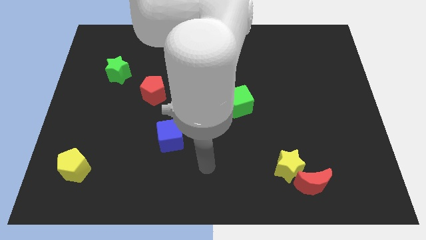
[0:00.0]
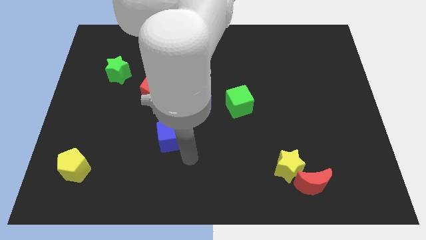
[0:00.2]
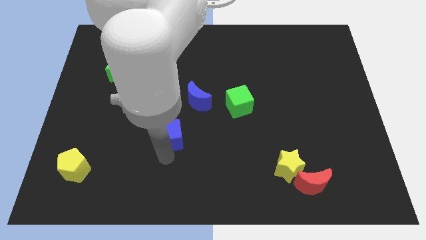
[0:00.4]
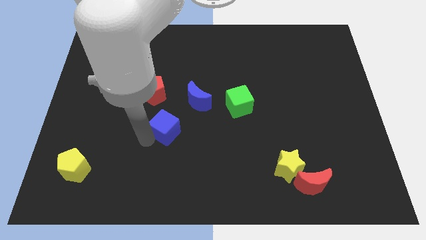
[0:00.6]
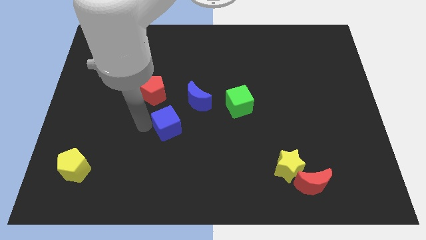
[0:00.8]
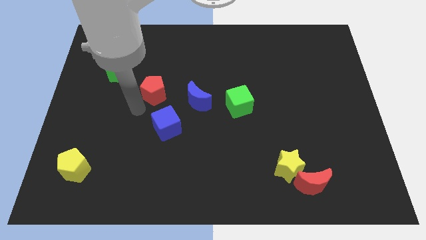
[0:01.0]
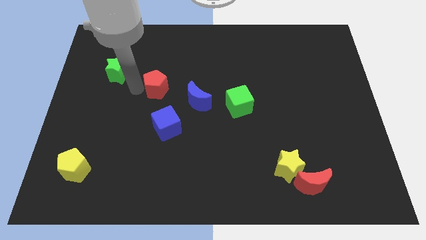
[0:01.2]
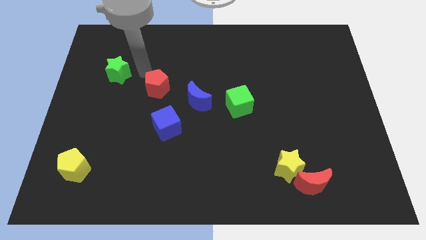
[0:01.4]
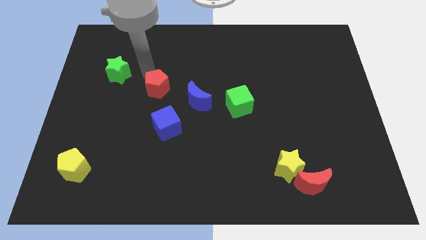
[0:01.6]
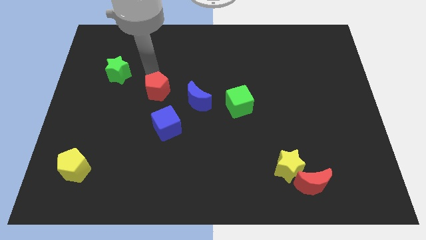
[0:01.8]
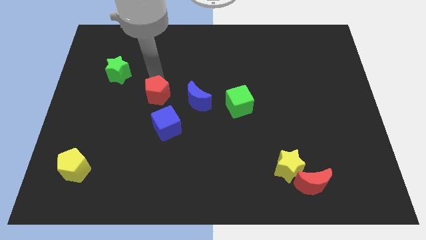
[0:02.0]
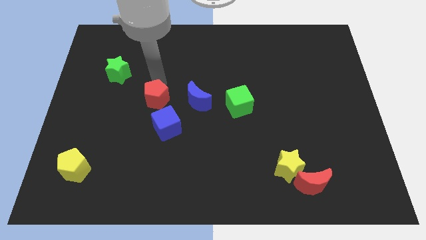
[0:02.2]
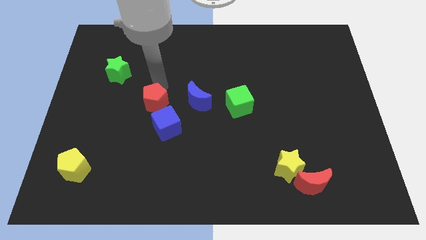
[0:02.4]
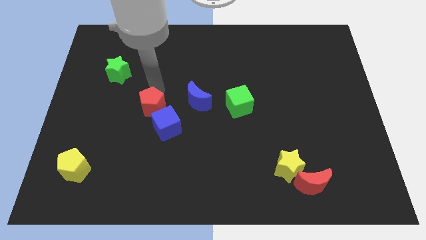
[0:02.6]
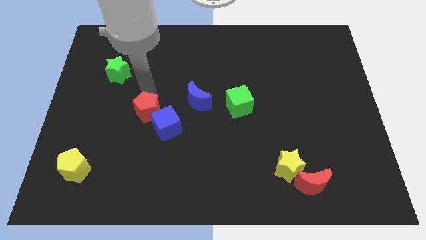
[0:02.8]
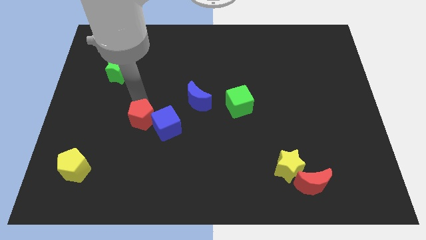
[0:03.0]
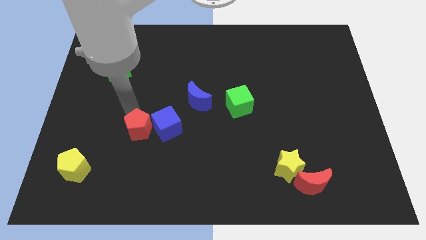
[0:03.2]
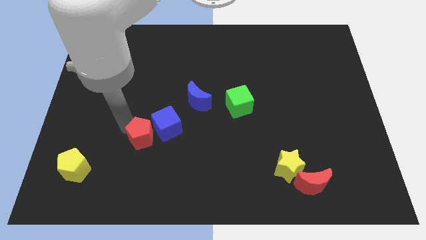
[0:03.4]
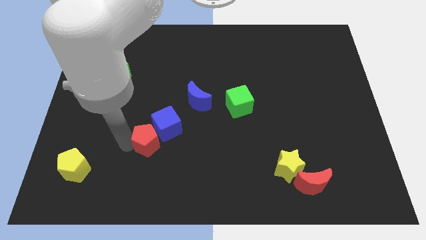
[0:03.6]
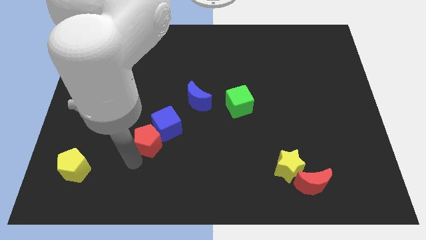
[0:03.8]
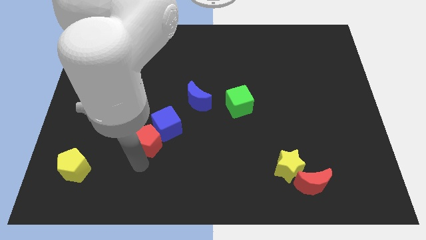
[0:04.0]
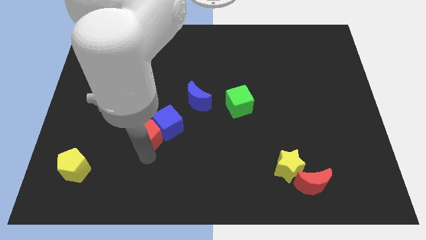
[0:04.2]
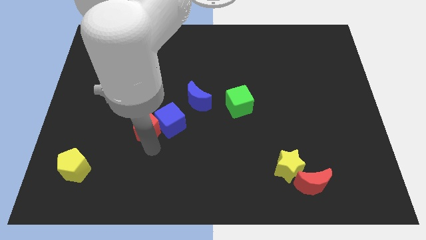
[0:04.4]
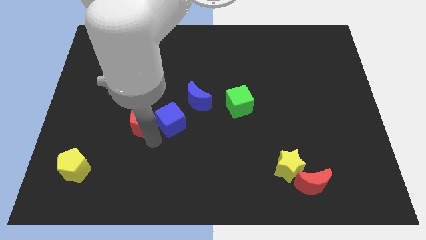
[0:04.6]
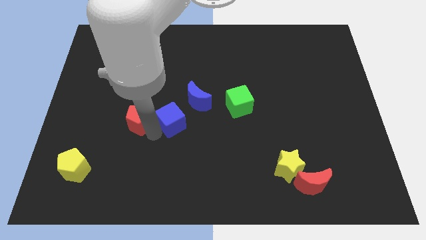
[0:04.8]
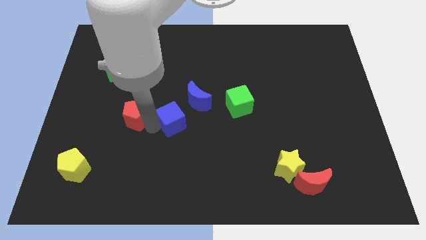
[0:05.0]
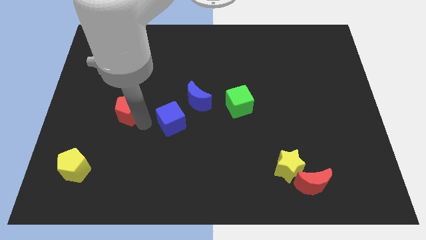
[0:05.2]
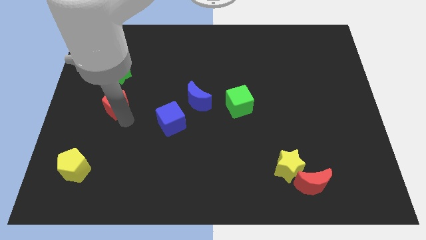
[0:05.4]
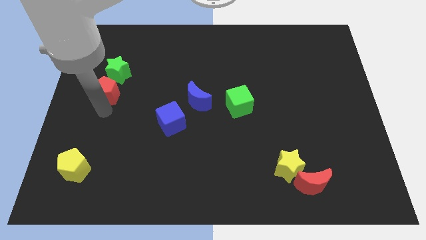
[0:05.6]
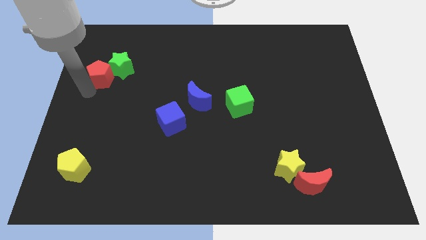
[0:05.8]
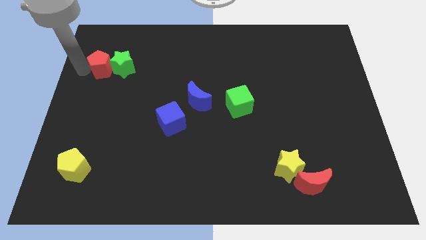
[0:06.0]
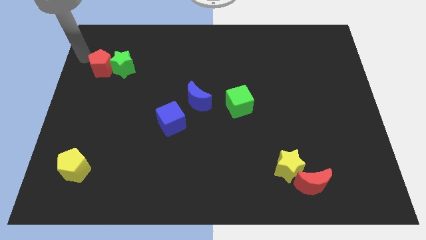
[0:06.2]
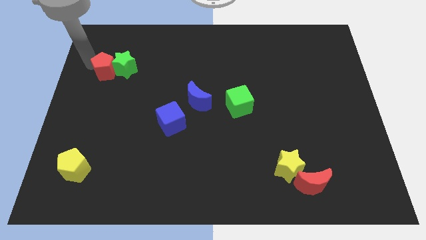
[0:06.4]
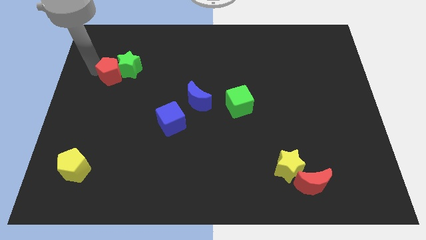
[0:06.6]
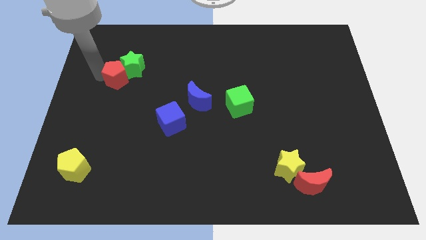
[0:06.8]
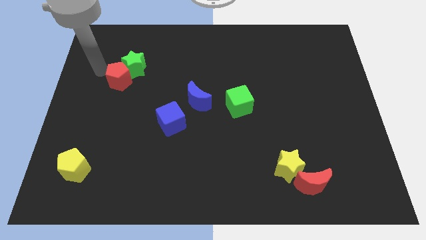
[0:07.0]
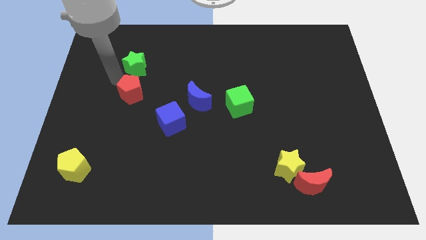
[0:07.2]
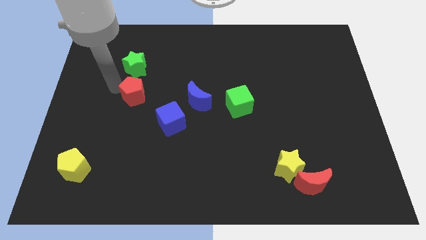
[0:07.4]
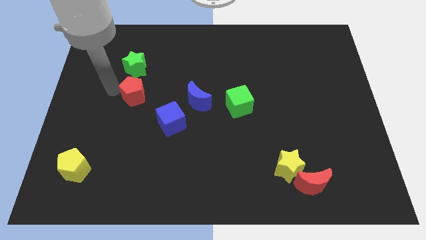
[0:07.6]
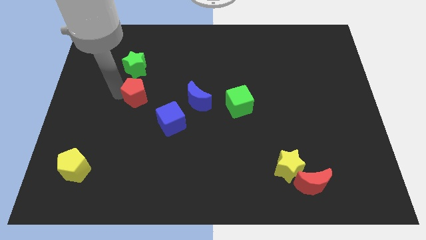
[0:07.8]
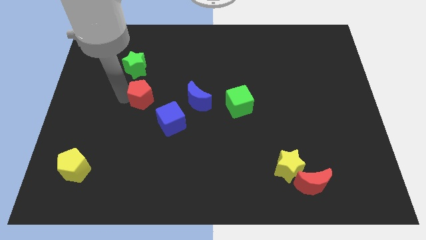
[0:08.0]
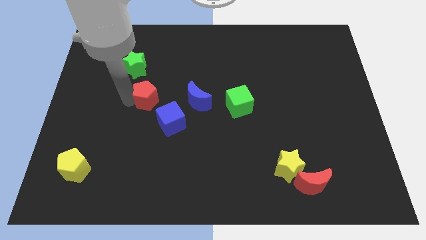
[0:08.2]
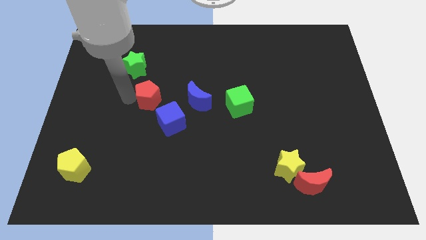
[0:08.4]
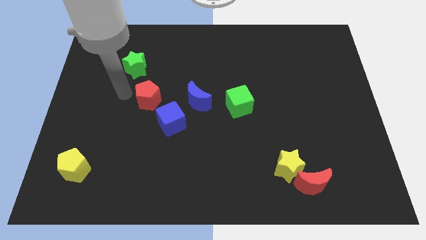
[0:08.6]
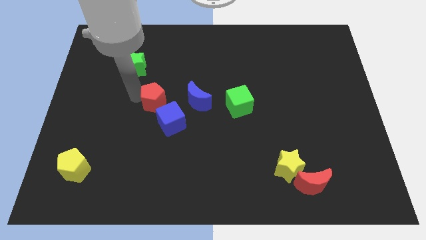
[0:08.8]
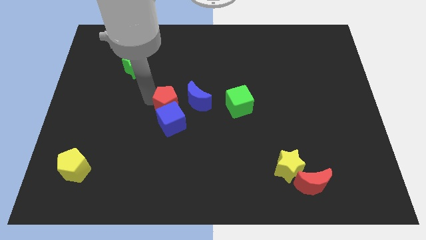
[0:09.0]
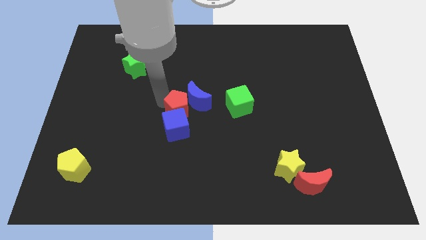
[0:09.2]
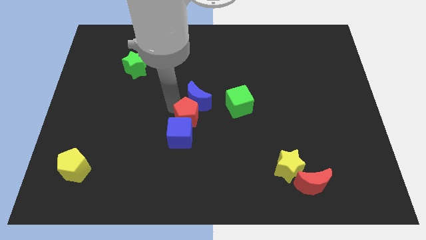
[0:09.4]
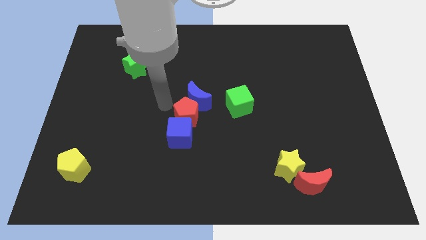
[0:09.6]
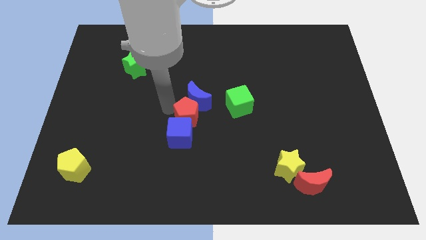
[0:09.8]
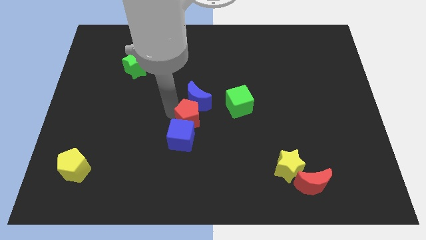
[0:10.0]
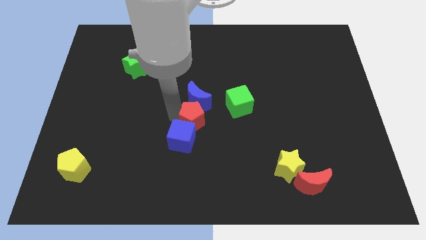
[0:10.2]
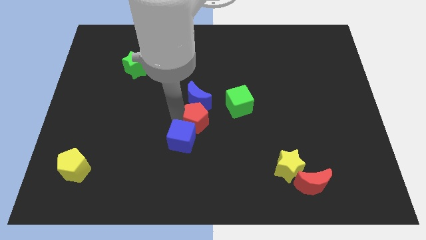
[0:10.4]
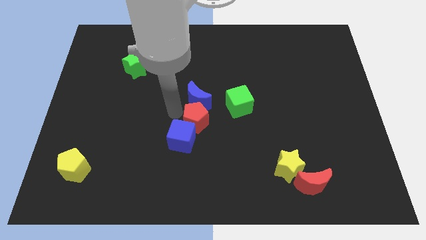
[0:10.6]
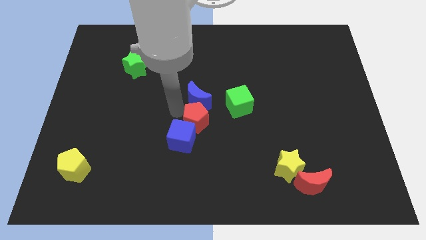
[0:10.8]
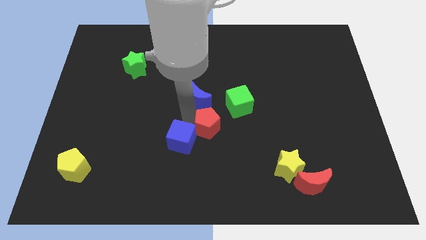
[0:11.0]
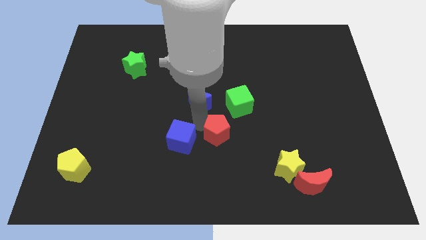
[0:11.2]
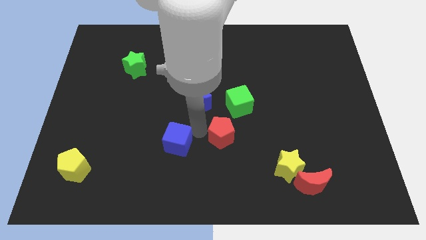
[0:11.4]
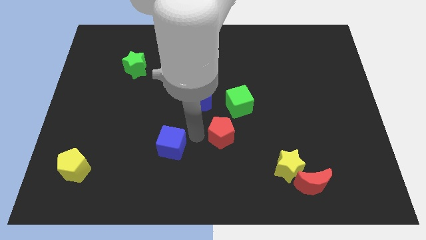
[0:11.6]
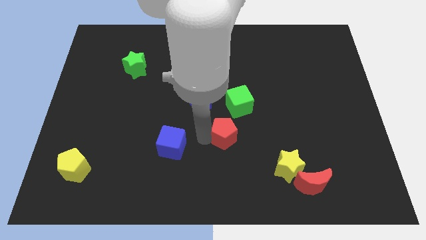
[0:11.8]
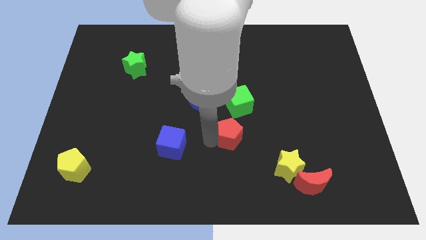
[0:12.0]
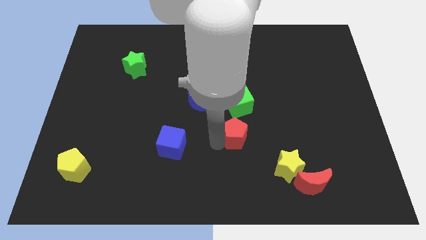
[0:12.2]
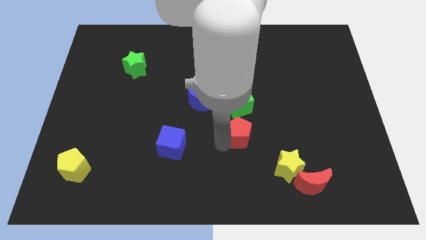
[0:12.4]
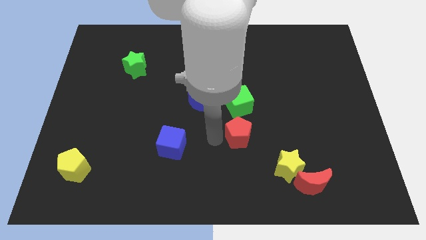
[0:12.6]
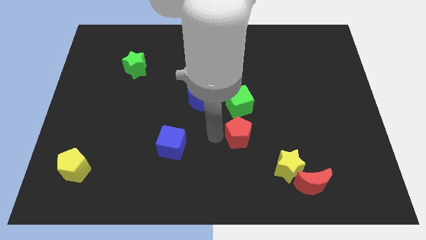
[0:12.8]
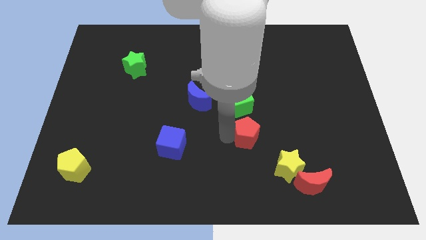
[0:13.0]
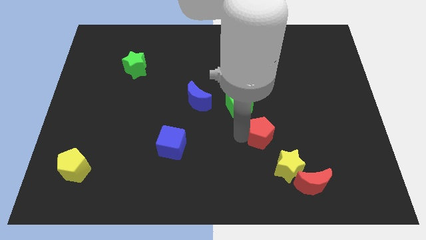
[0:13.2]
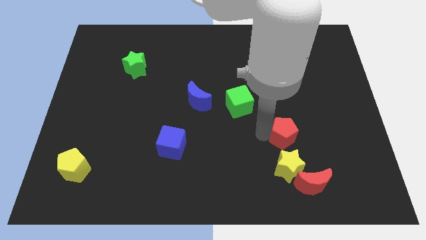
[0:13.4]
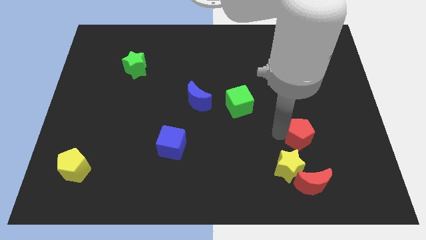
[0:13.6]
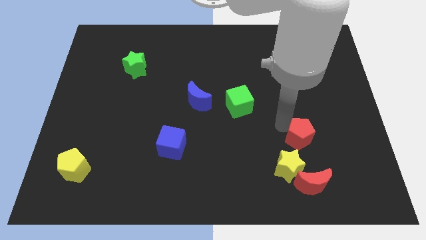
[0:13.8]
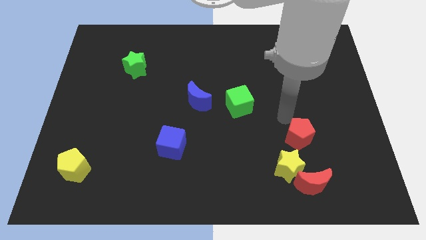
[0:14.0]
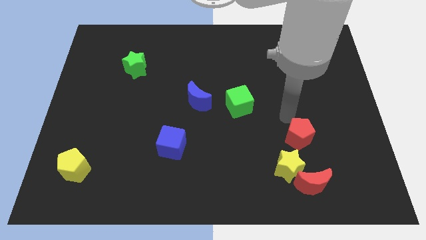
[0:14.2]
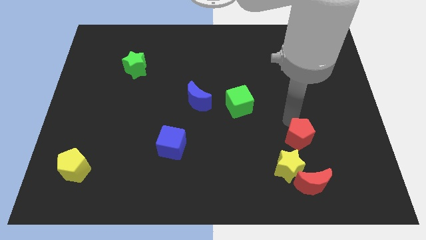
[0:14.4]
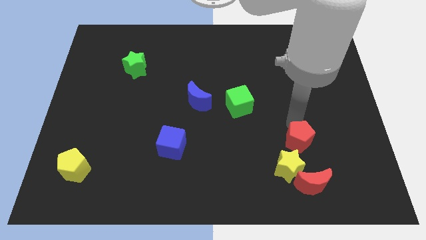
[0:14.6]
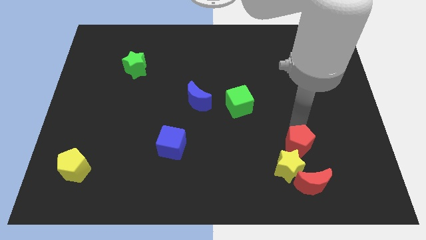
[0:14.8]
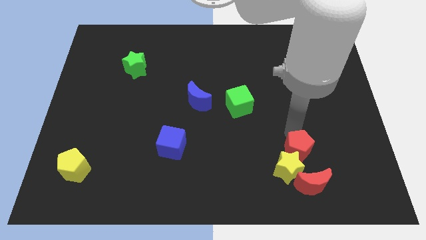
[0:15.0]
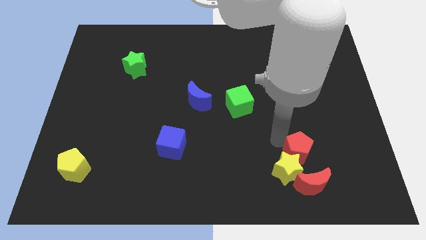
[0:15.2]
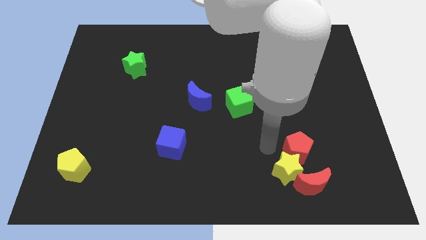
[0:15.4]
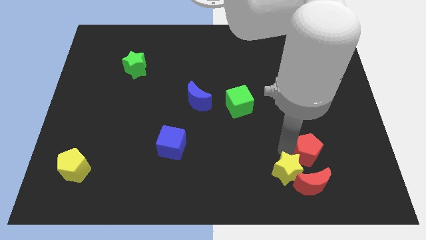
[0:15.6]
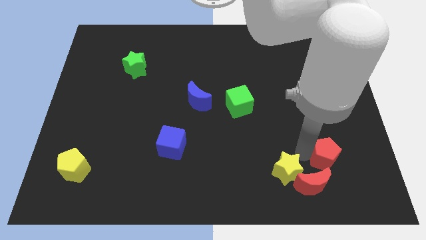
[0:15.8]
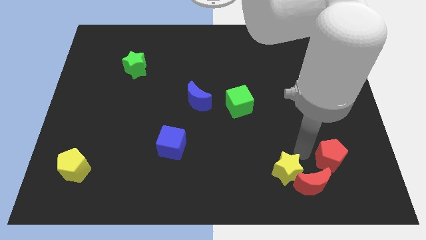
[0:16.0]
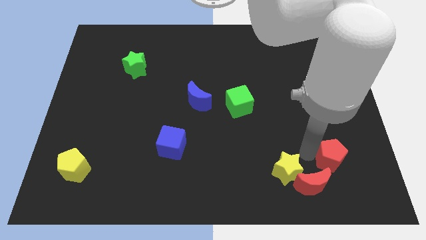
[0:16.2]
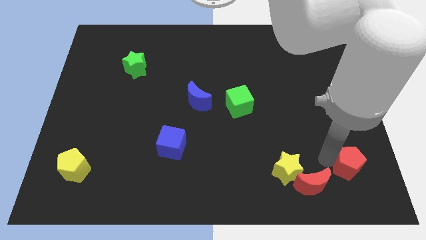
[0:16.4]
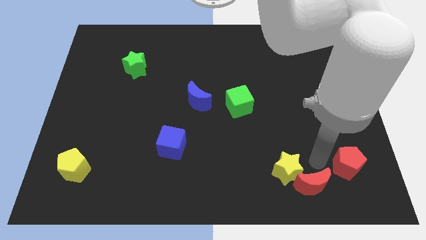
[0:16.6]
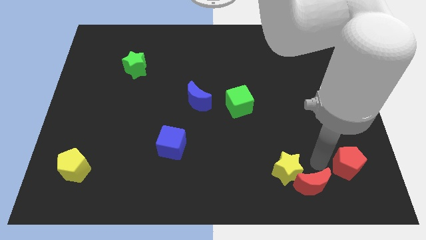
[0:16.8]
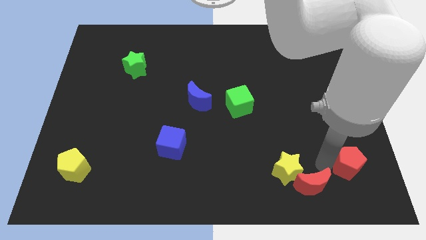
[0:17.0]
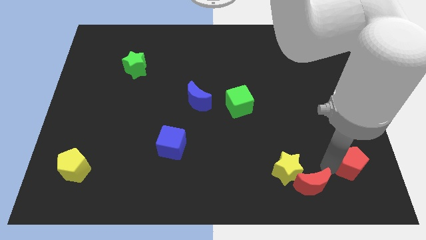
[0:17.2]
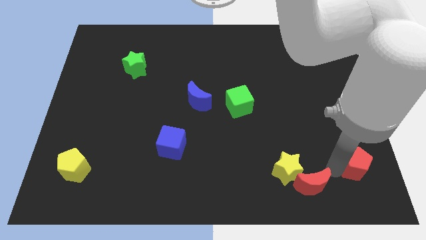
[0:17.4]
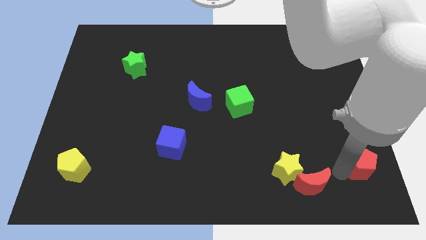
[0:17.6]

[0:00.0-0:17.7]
move the red pentagon to the bottom right
